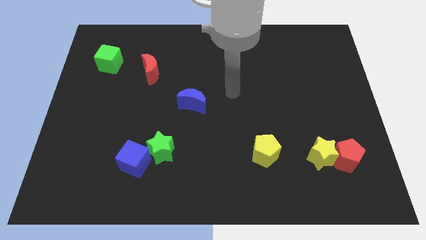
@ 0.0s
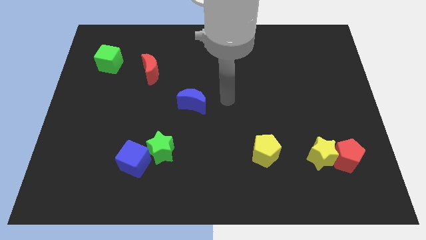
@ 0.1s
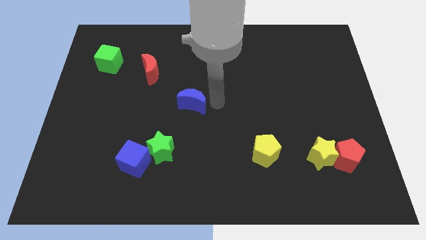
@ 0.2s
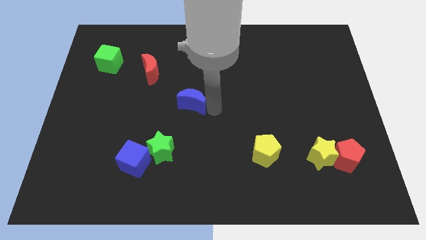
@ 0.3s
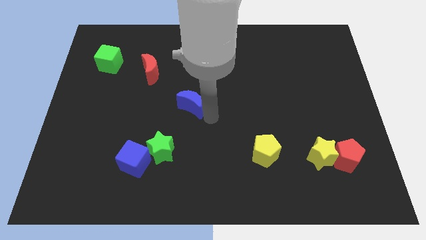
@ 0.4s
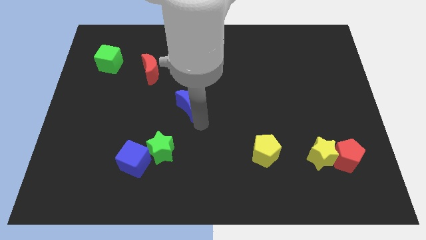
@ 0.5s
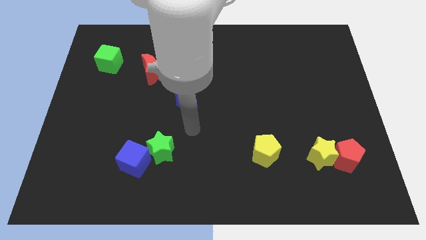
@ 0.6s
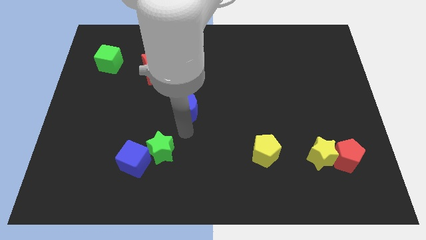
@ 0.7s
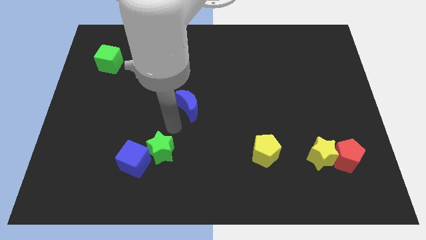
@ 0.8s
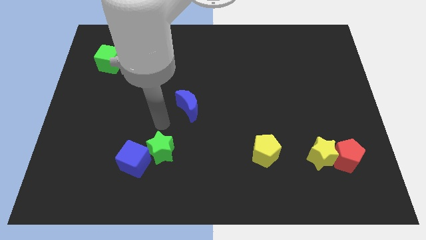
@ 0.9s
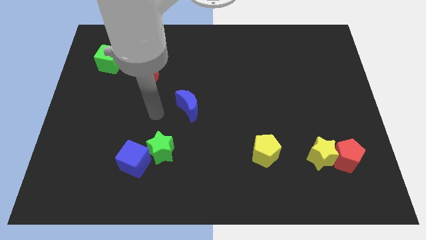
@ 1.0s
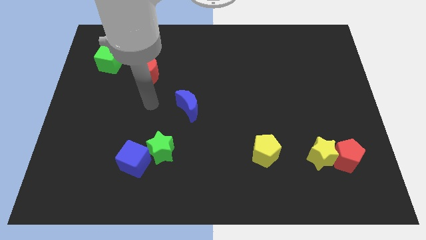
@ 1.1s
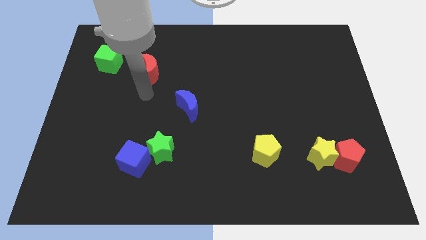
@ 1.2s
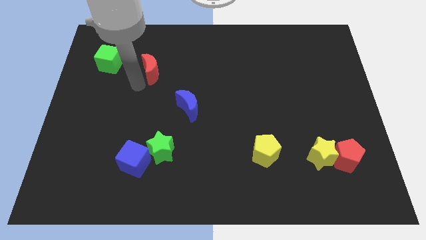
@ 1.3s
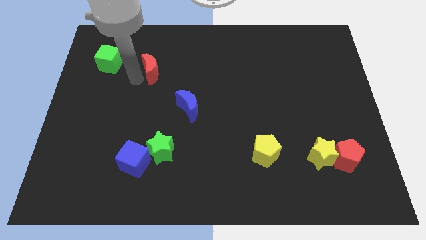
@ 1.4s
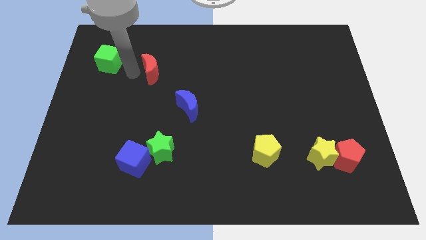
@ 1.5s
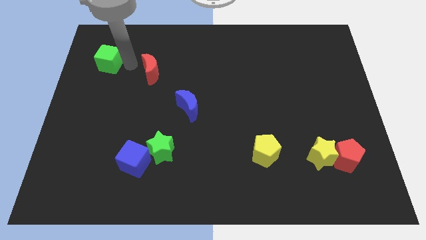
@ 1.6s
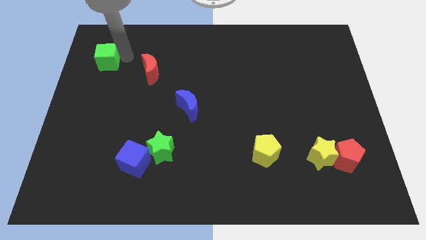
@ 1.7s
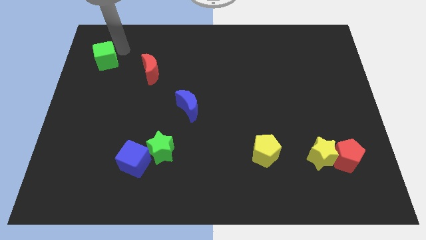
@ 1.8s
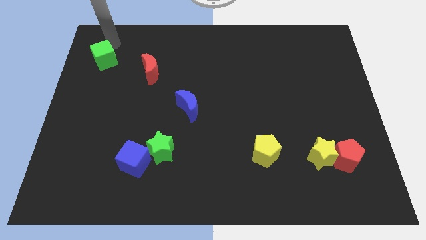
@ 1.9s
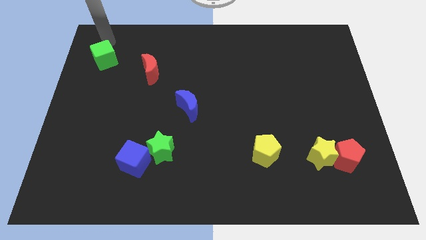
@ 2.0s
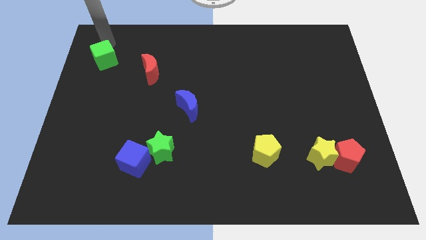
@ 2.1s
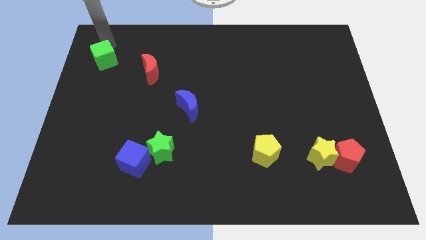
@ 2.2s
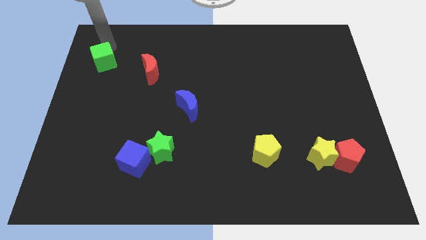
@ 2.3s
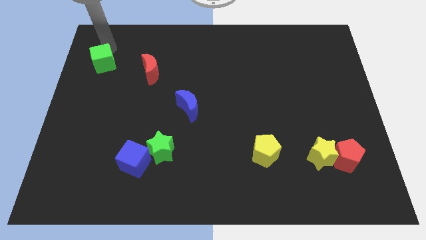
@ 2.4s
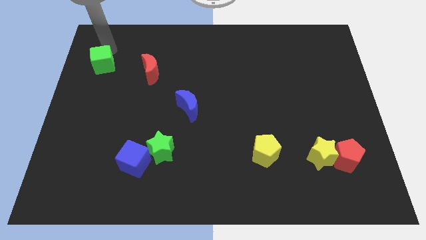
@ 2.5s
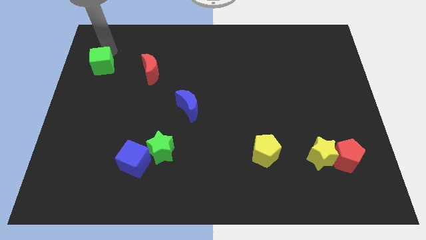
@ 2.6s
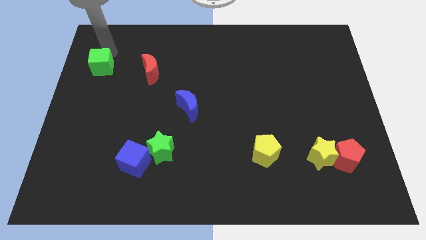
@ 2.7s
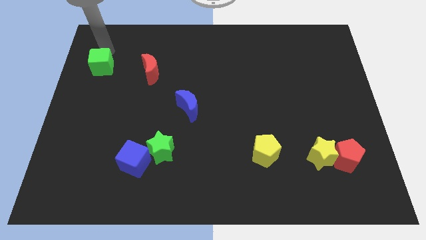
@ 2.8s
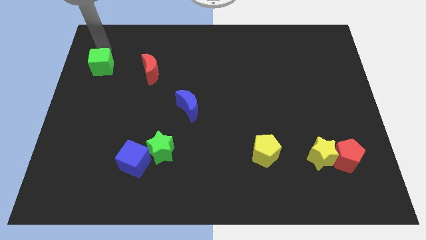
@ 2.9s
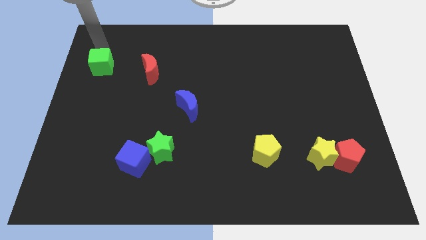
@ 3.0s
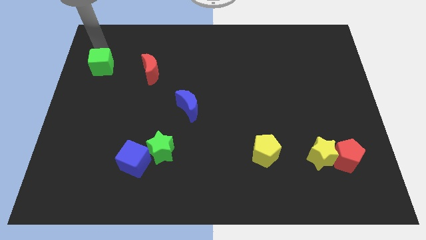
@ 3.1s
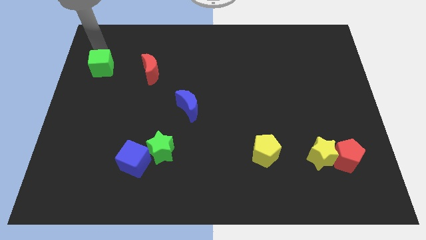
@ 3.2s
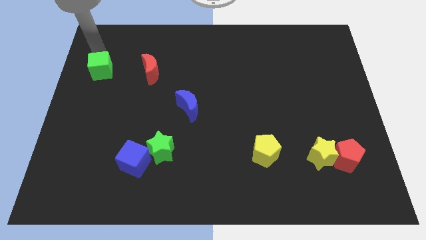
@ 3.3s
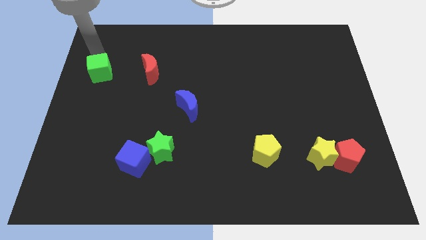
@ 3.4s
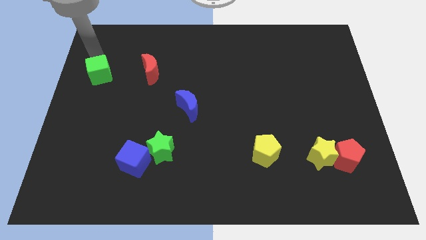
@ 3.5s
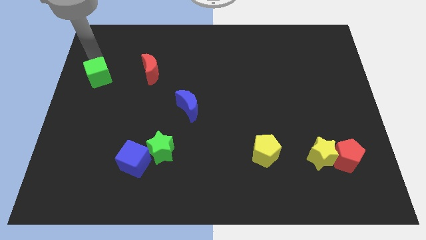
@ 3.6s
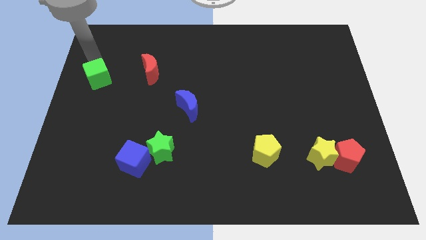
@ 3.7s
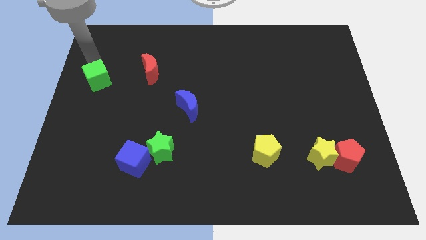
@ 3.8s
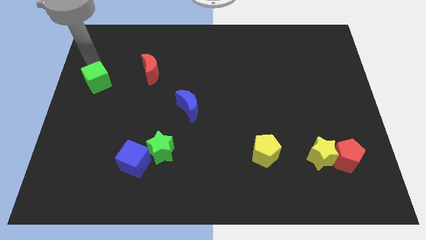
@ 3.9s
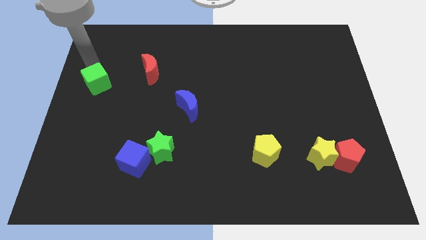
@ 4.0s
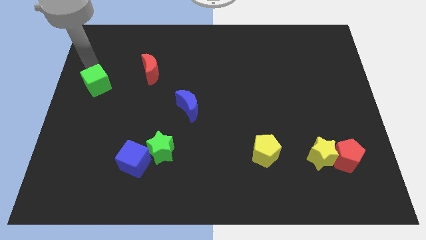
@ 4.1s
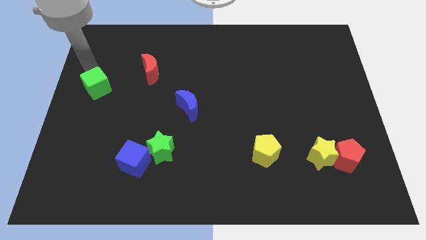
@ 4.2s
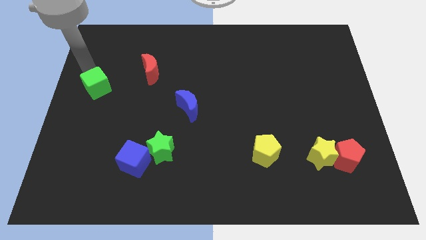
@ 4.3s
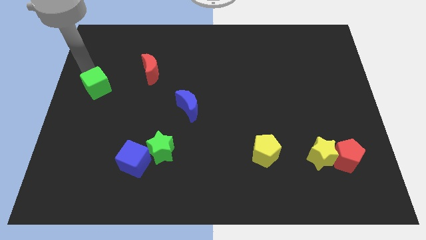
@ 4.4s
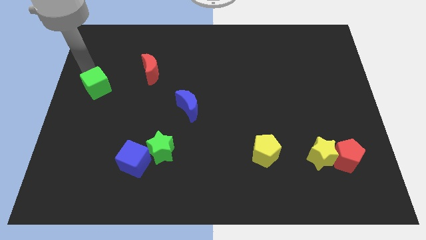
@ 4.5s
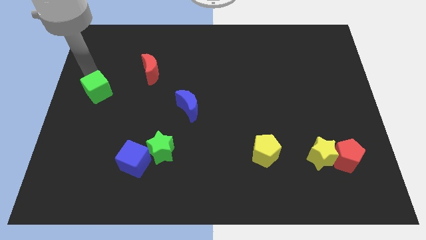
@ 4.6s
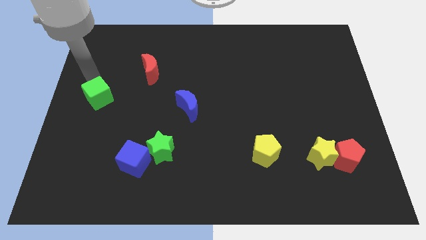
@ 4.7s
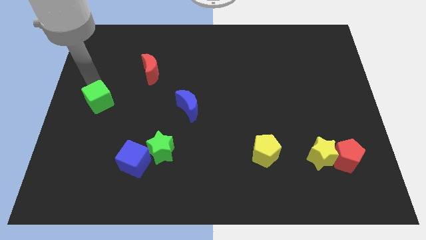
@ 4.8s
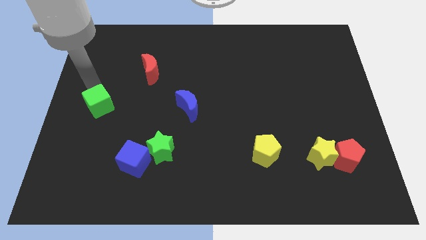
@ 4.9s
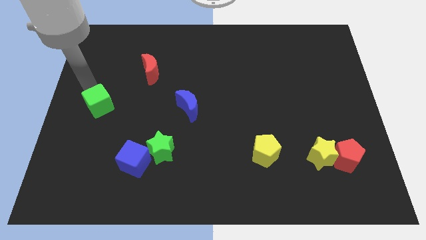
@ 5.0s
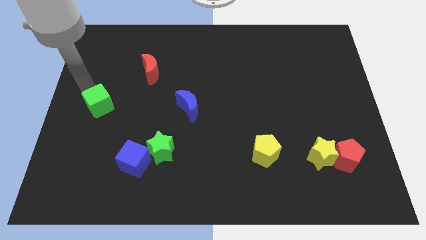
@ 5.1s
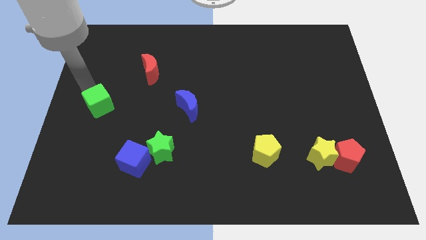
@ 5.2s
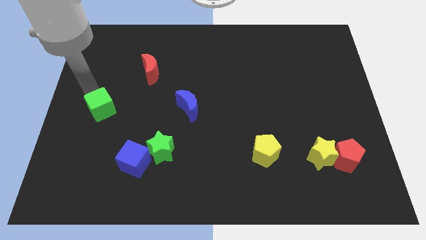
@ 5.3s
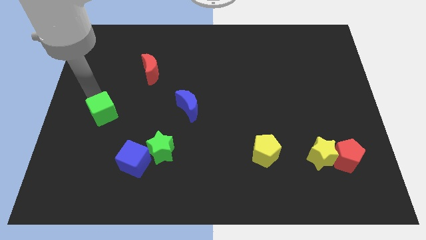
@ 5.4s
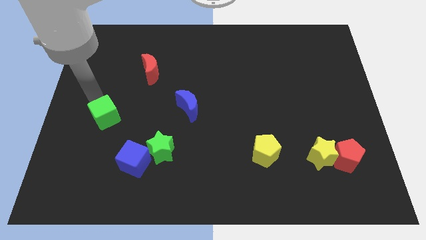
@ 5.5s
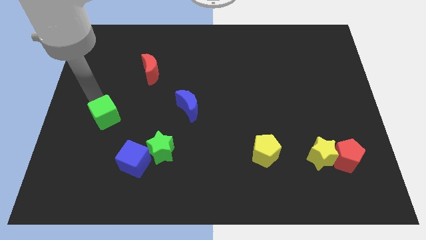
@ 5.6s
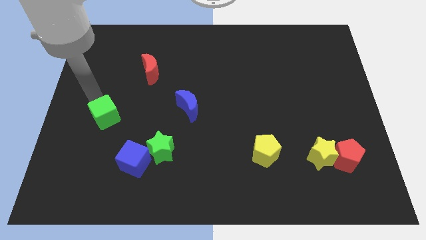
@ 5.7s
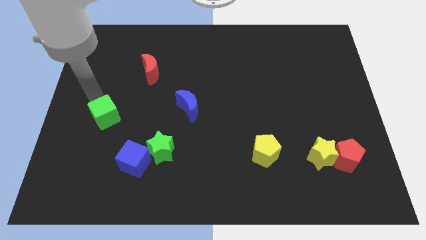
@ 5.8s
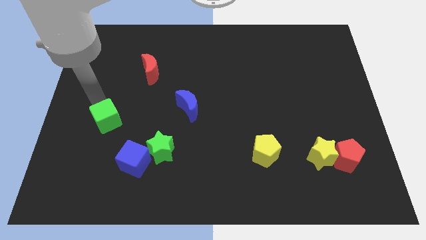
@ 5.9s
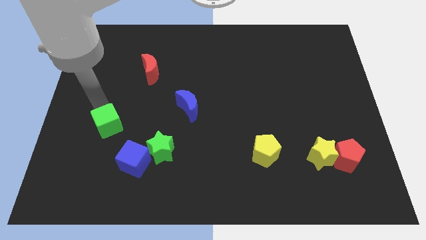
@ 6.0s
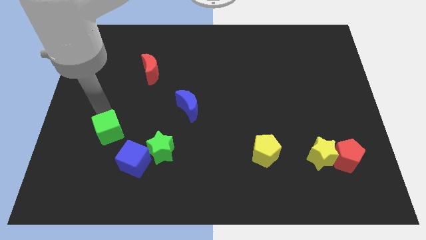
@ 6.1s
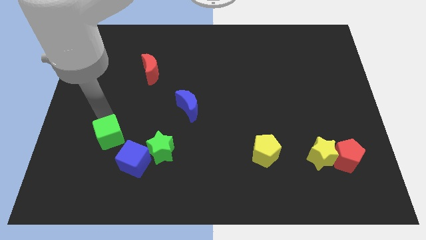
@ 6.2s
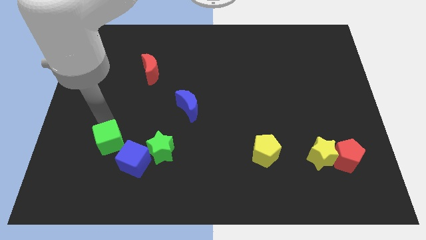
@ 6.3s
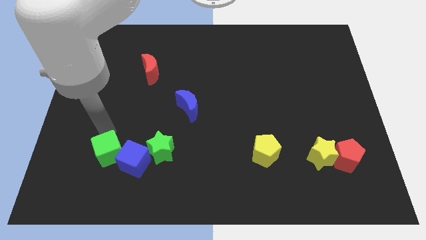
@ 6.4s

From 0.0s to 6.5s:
push the green cube close to the blue cube
